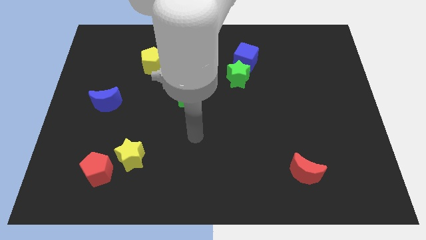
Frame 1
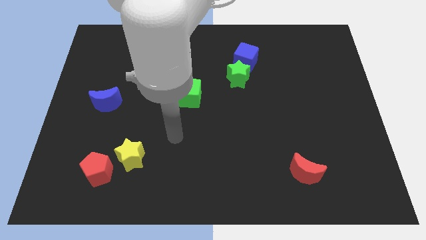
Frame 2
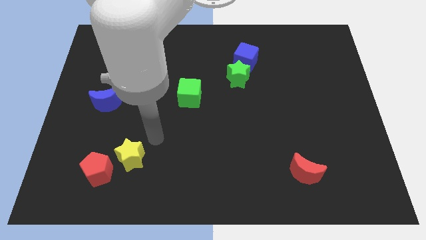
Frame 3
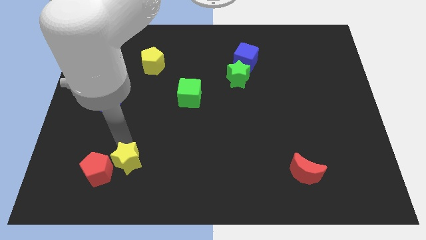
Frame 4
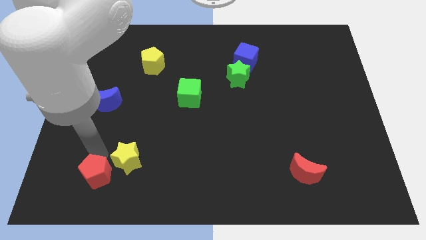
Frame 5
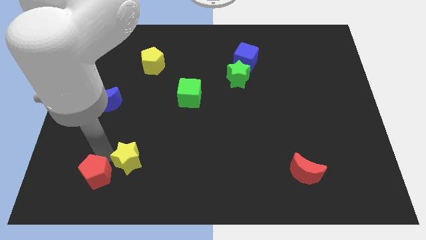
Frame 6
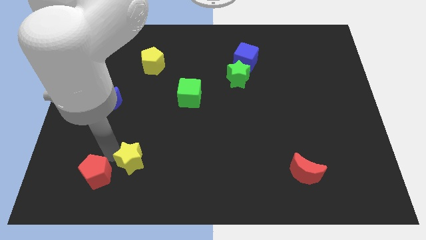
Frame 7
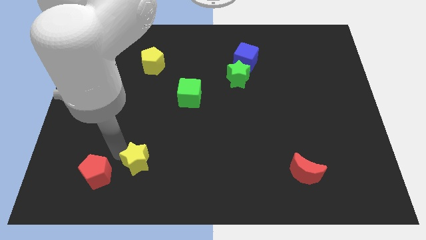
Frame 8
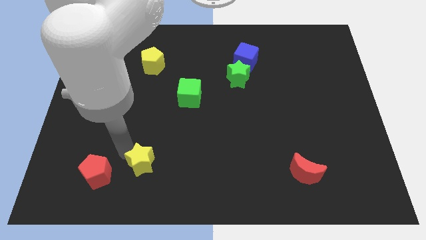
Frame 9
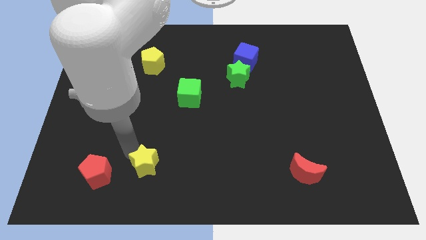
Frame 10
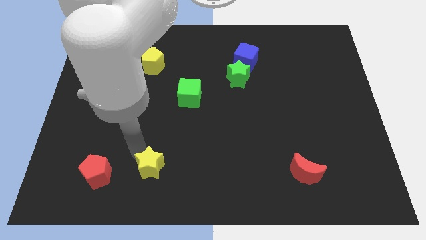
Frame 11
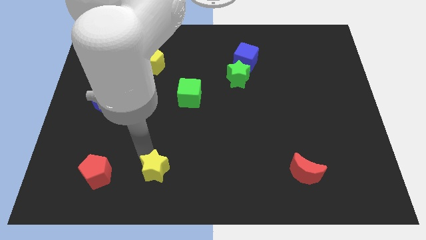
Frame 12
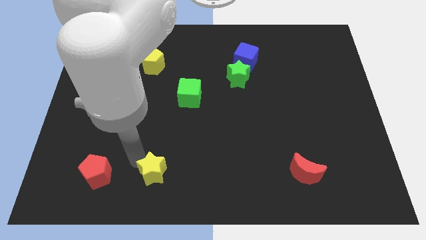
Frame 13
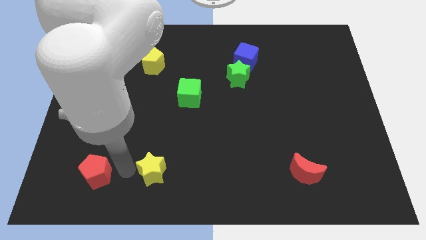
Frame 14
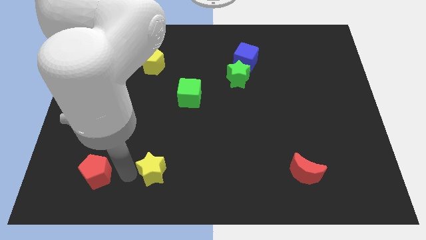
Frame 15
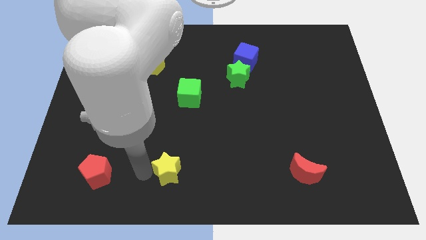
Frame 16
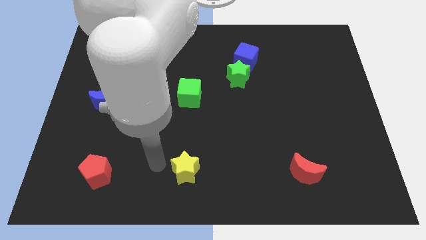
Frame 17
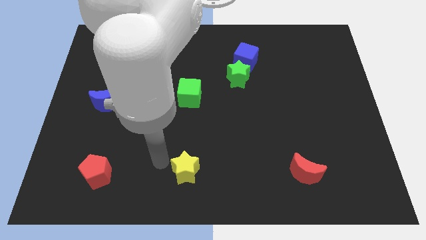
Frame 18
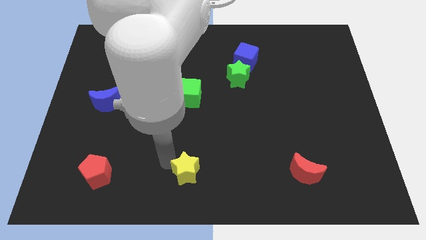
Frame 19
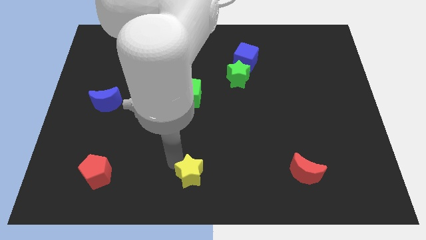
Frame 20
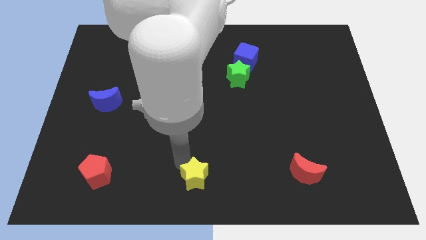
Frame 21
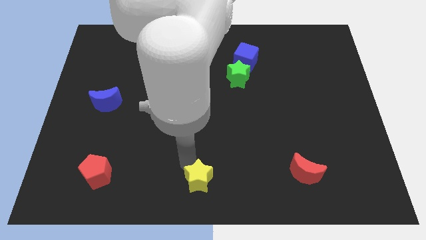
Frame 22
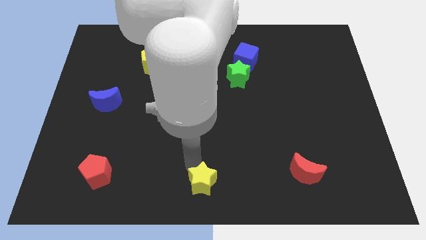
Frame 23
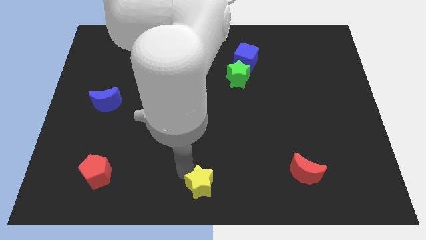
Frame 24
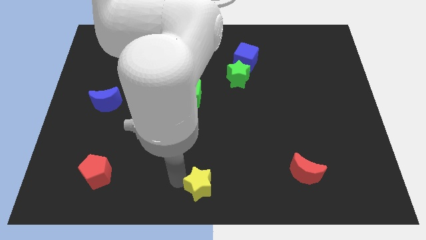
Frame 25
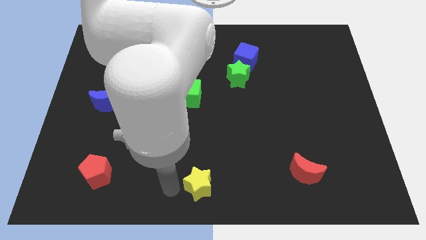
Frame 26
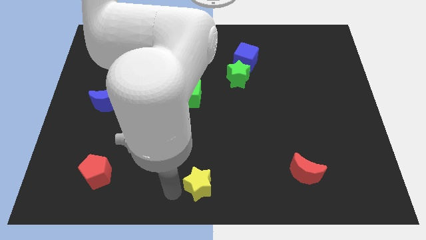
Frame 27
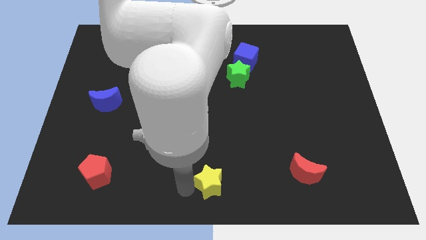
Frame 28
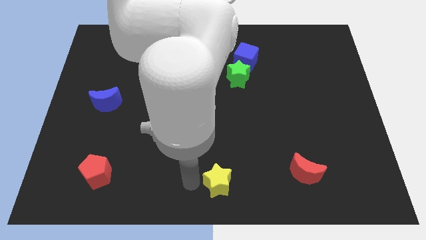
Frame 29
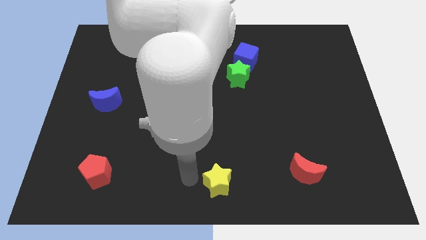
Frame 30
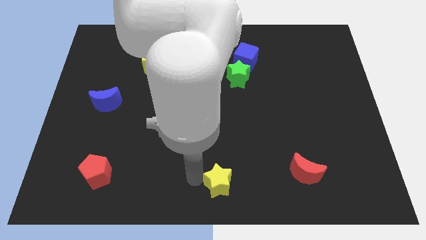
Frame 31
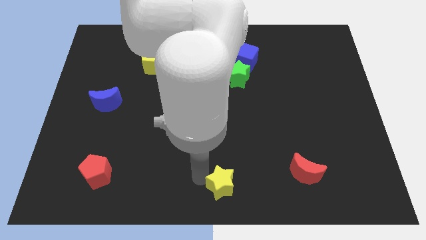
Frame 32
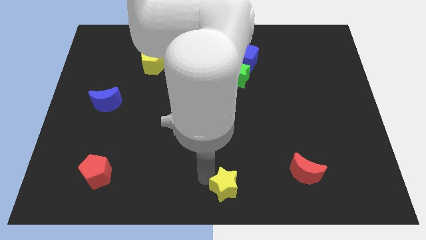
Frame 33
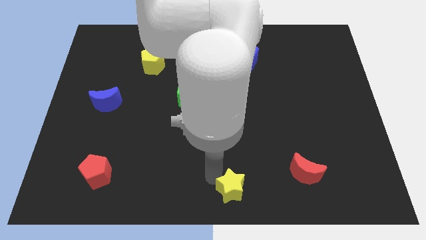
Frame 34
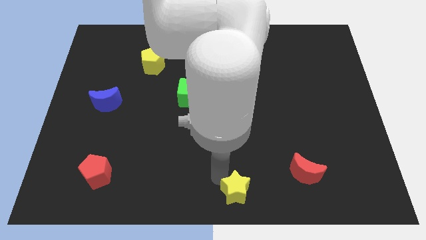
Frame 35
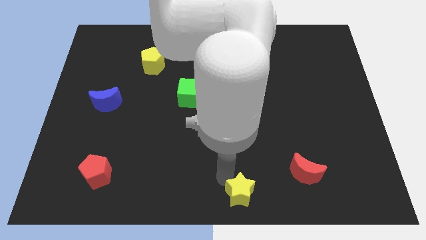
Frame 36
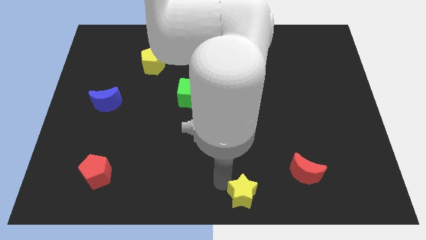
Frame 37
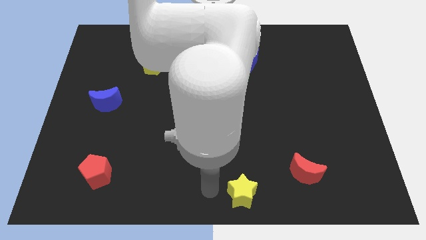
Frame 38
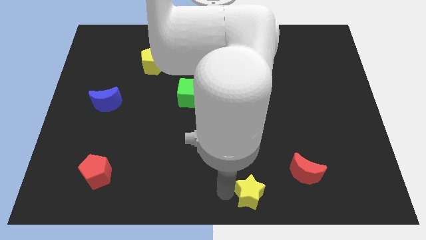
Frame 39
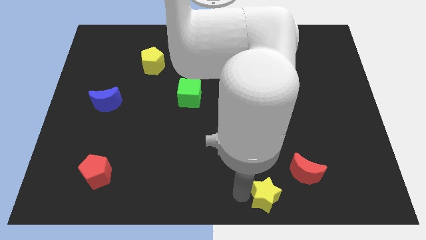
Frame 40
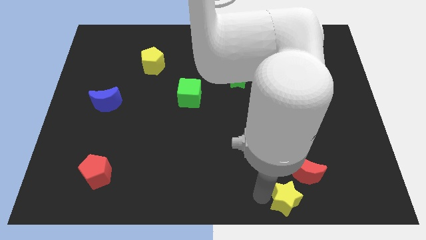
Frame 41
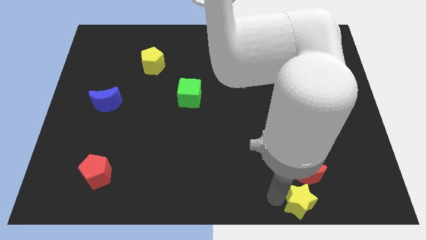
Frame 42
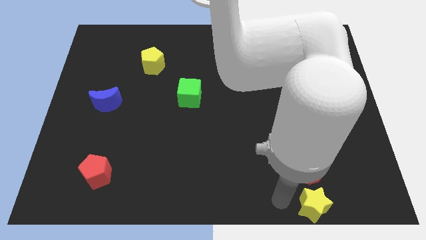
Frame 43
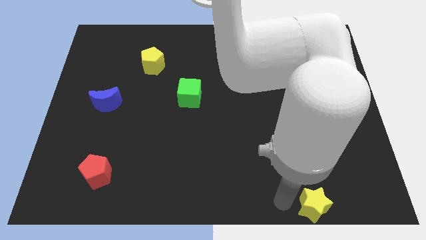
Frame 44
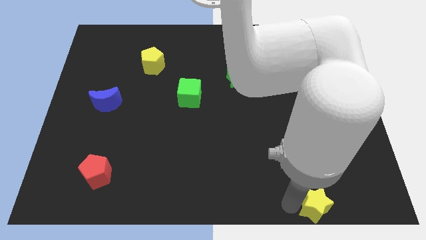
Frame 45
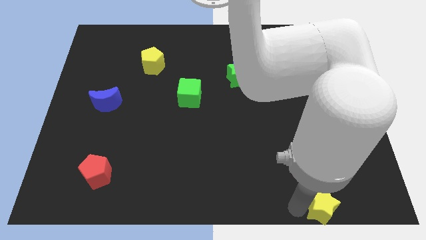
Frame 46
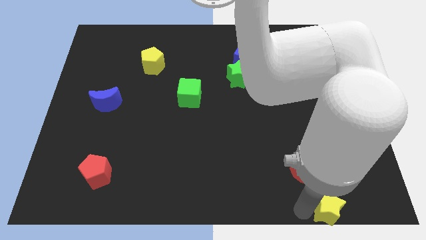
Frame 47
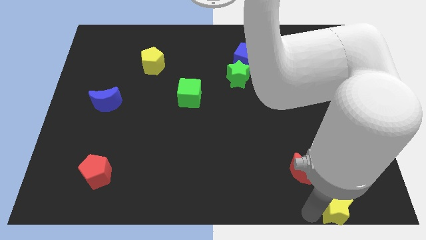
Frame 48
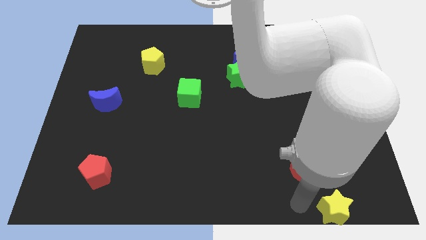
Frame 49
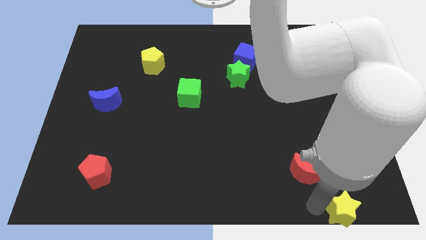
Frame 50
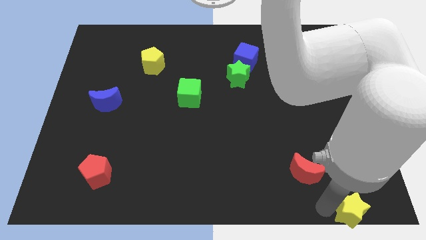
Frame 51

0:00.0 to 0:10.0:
put the yellow star to the bottom right of the board

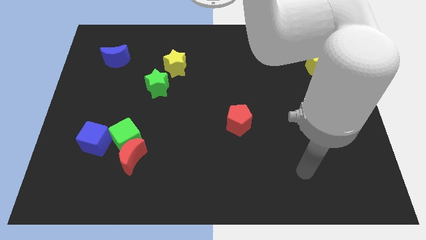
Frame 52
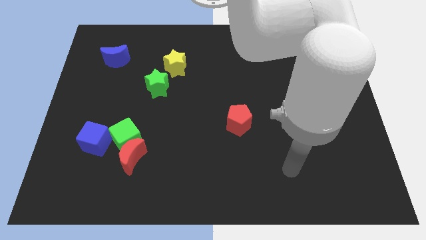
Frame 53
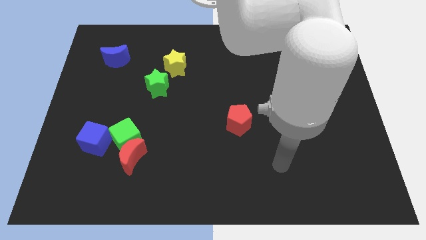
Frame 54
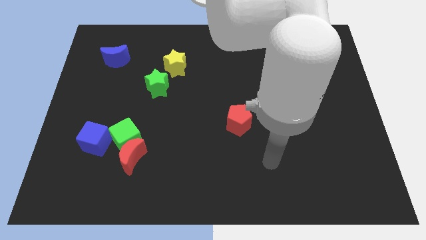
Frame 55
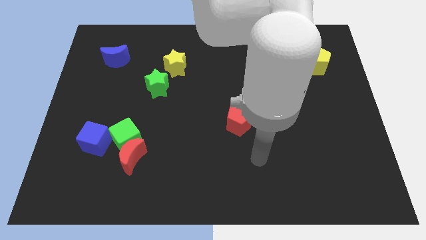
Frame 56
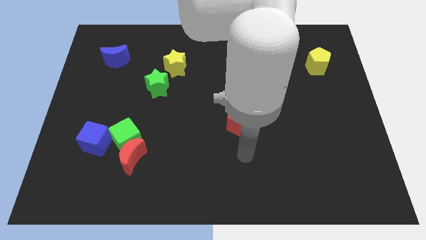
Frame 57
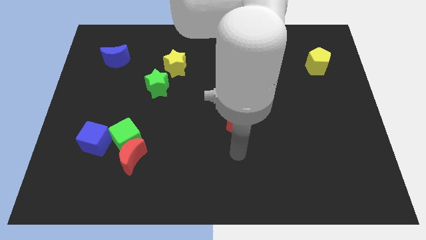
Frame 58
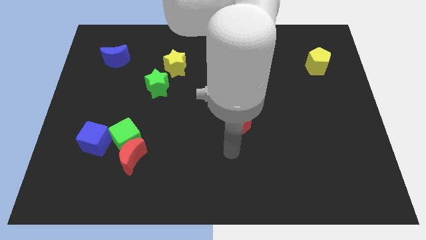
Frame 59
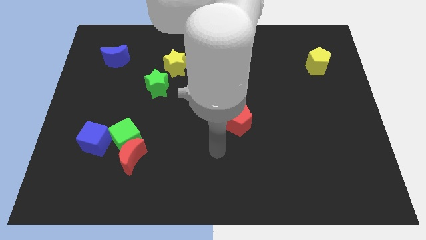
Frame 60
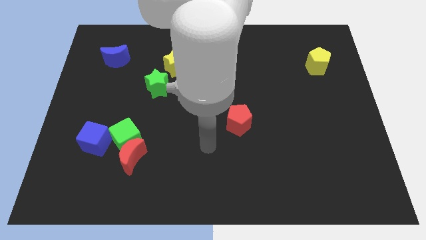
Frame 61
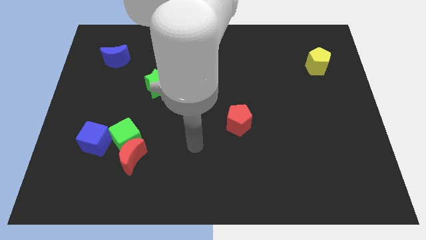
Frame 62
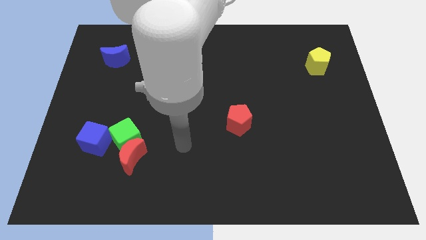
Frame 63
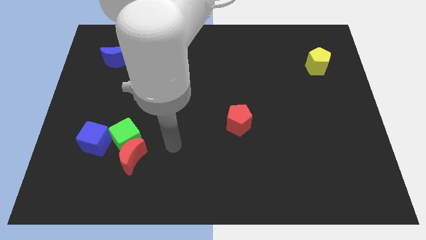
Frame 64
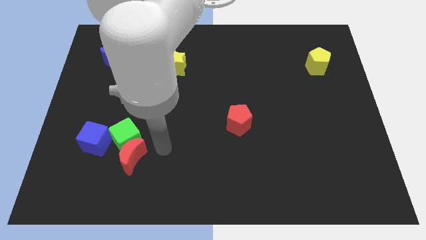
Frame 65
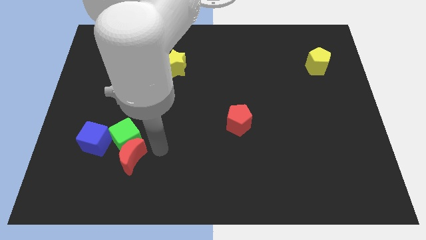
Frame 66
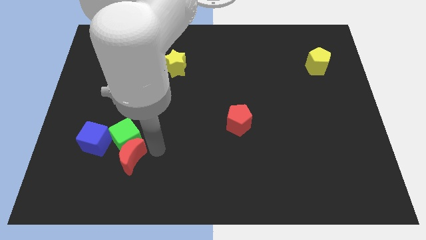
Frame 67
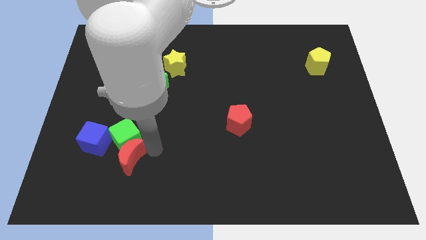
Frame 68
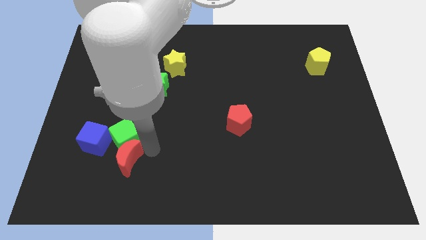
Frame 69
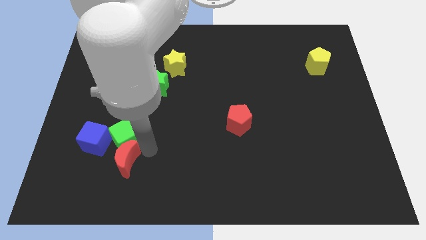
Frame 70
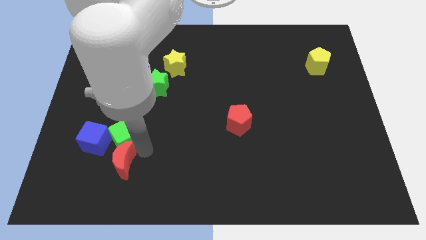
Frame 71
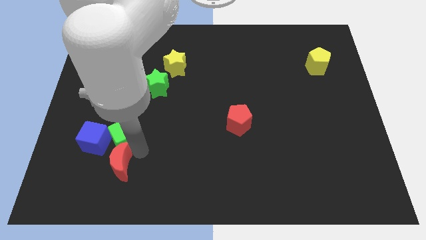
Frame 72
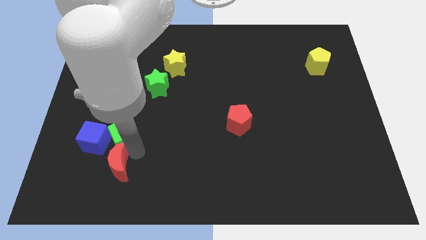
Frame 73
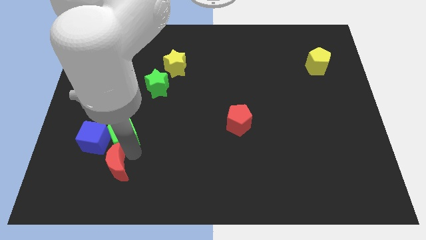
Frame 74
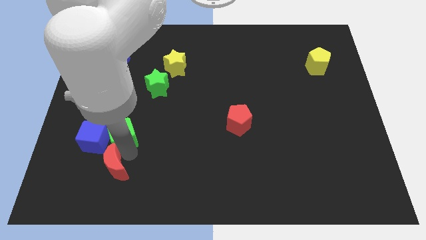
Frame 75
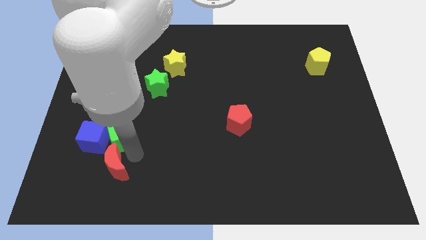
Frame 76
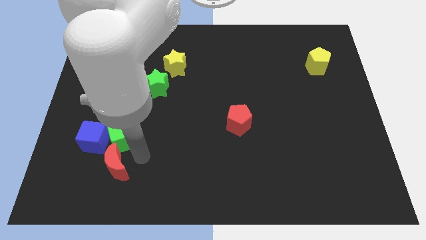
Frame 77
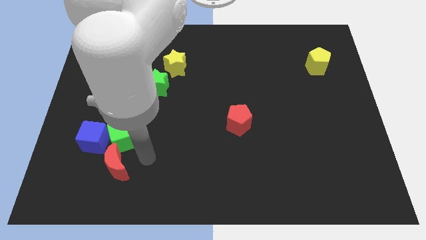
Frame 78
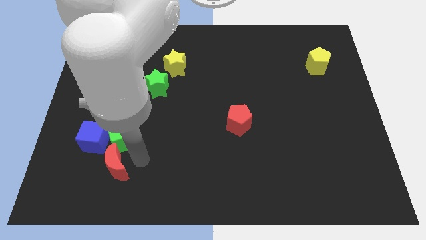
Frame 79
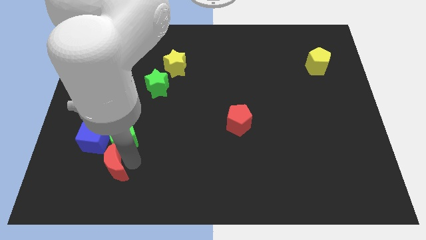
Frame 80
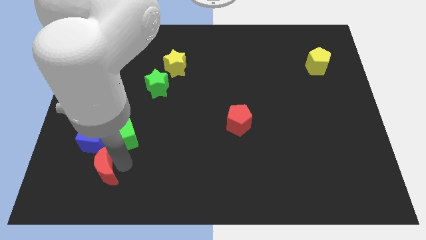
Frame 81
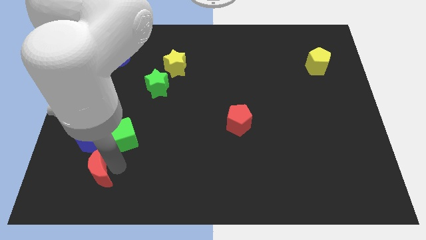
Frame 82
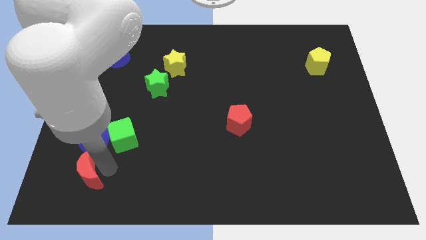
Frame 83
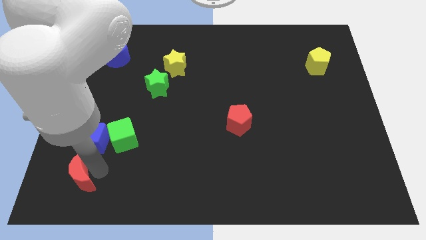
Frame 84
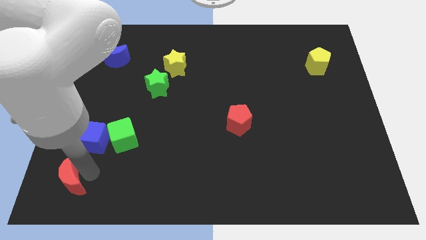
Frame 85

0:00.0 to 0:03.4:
move the red moon to the bottom left
